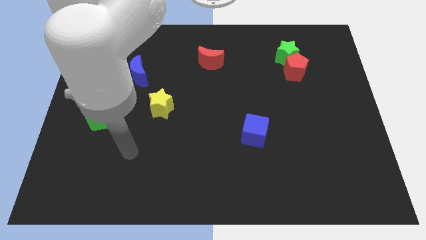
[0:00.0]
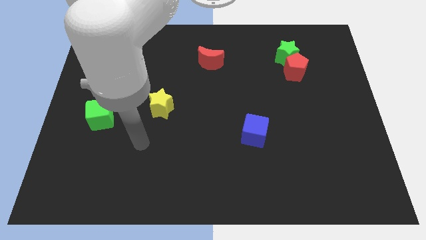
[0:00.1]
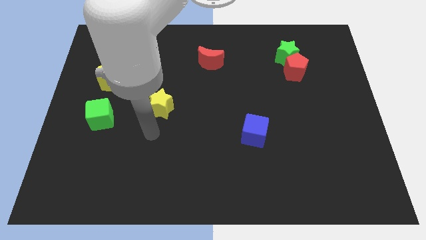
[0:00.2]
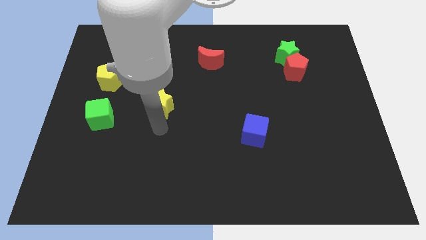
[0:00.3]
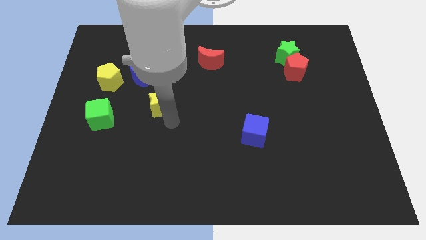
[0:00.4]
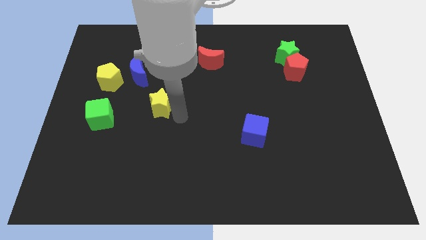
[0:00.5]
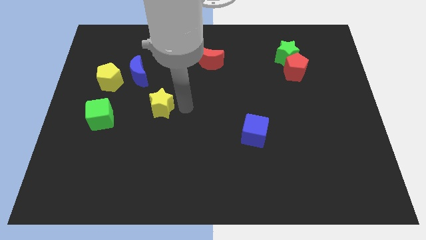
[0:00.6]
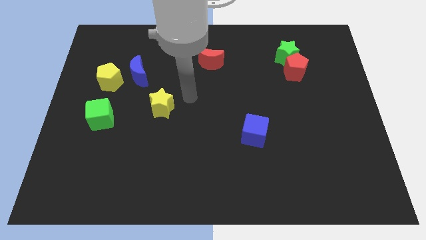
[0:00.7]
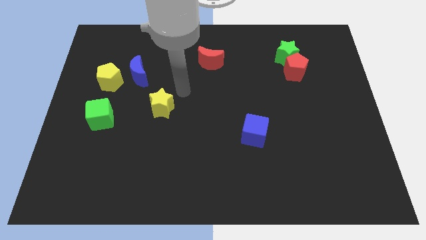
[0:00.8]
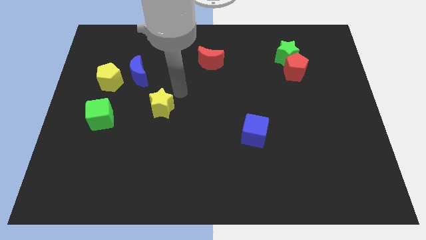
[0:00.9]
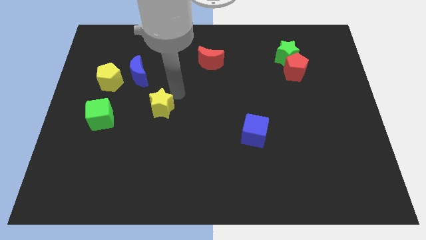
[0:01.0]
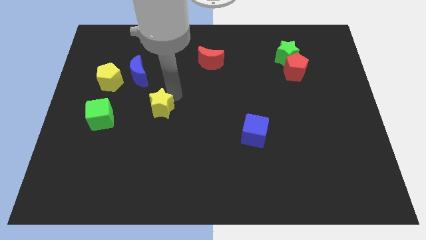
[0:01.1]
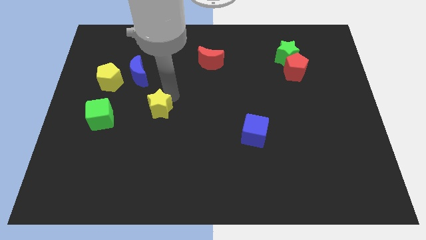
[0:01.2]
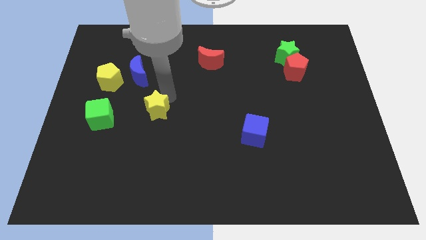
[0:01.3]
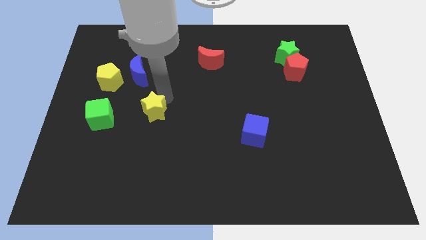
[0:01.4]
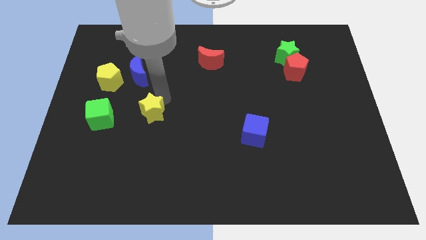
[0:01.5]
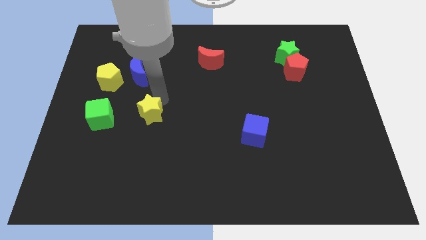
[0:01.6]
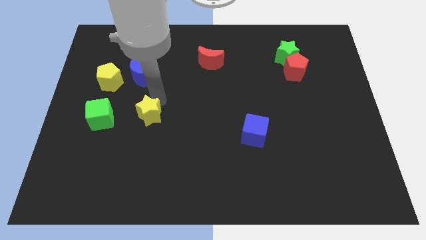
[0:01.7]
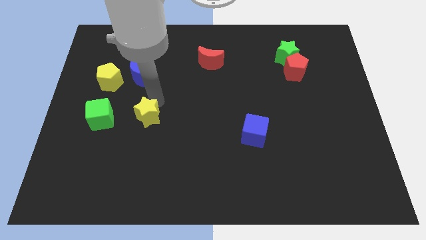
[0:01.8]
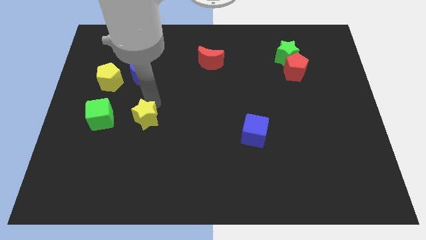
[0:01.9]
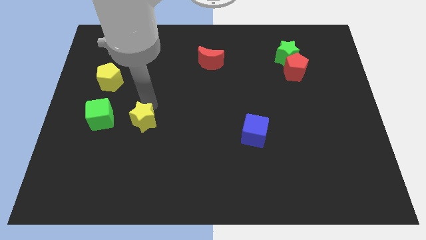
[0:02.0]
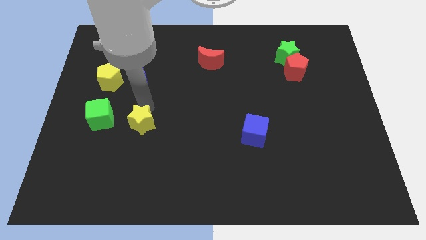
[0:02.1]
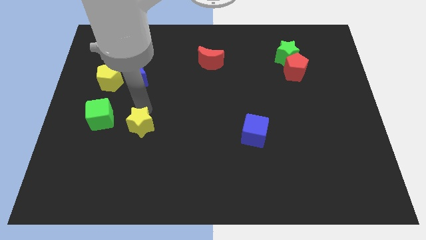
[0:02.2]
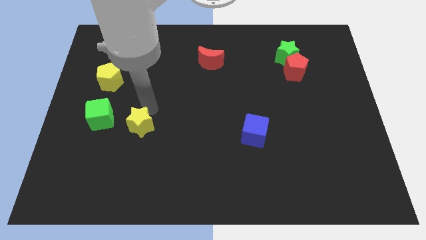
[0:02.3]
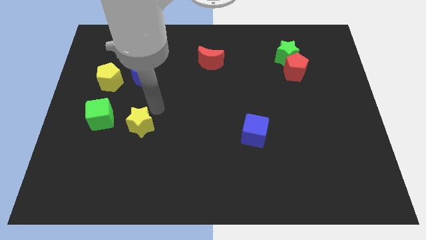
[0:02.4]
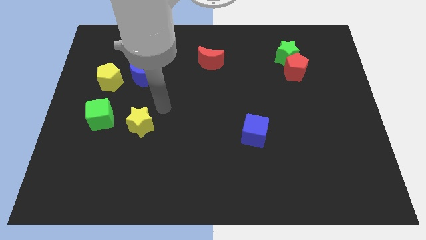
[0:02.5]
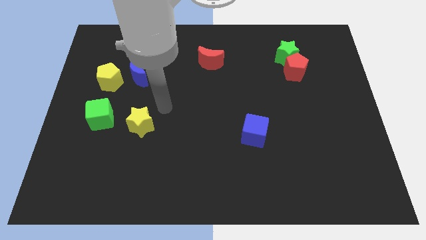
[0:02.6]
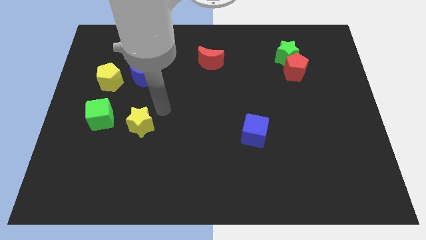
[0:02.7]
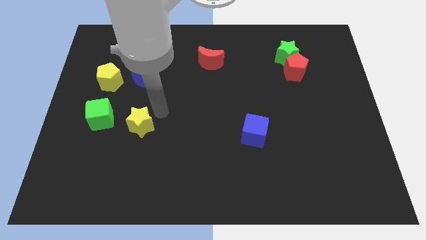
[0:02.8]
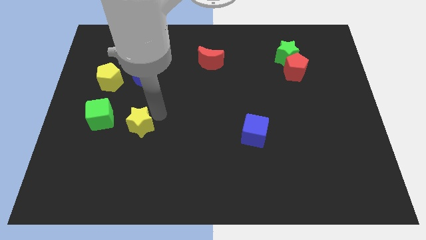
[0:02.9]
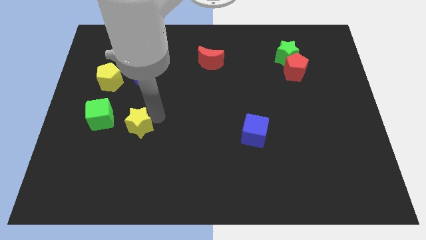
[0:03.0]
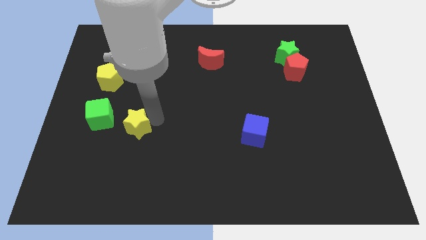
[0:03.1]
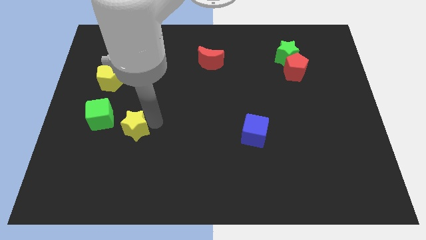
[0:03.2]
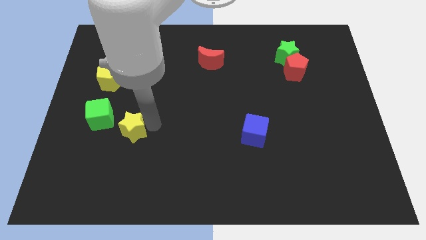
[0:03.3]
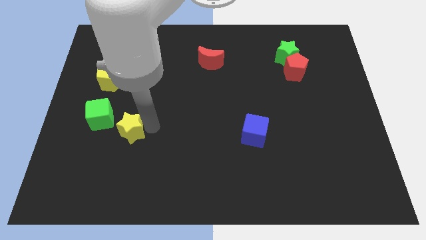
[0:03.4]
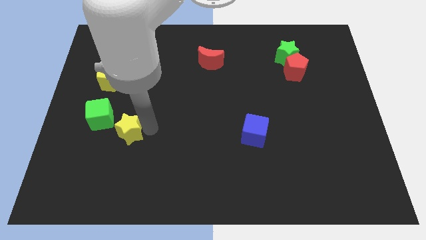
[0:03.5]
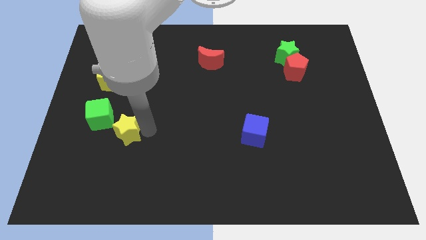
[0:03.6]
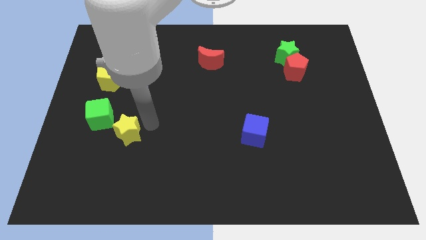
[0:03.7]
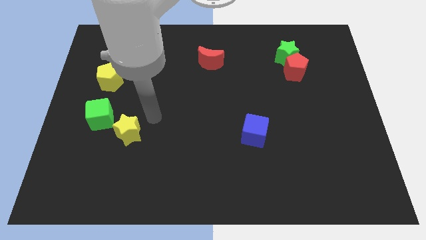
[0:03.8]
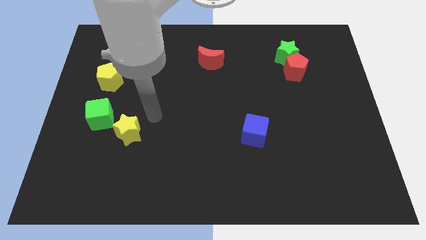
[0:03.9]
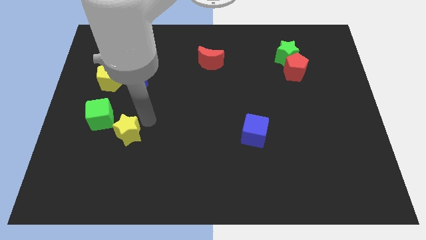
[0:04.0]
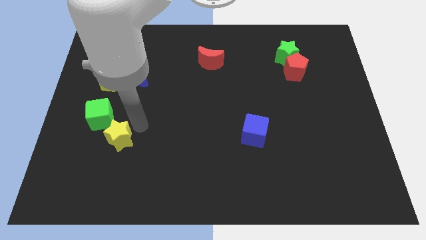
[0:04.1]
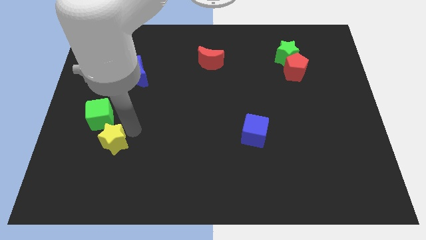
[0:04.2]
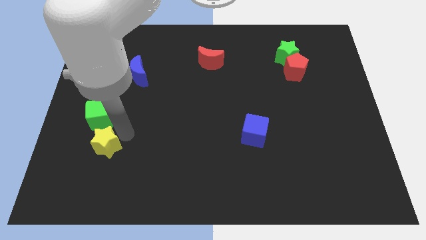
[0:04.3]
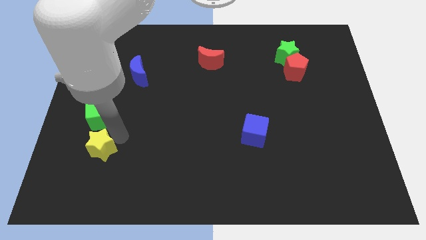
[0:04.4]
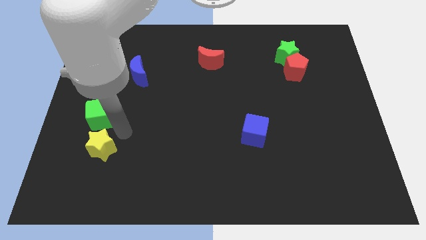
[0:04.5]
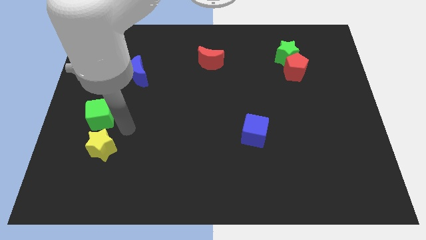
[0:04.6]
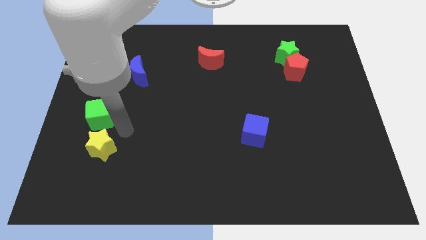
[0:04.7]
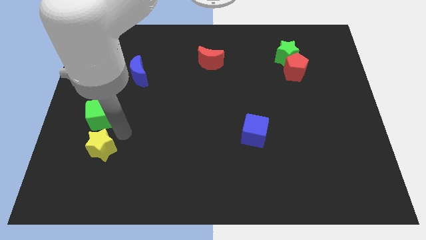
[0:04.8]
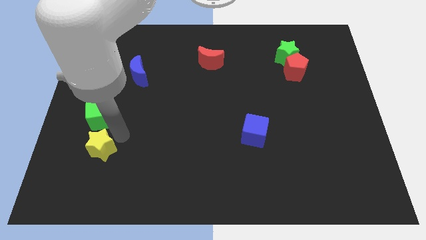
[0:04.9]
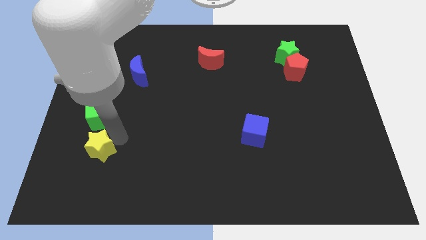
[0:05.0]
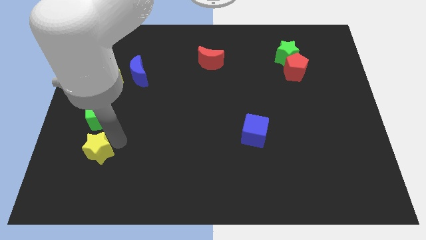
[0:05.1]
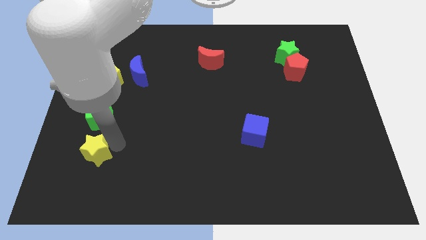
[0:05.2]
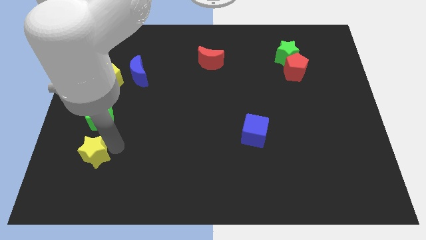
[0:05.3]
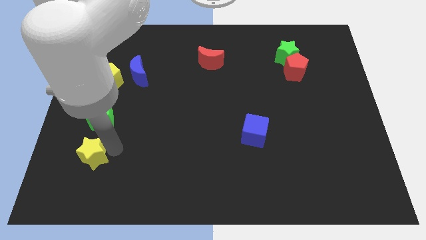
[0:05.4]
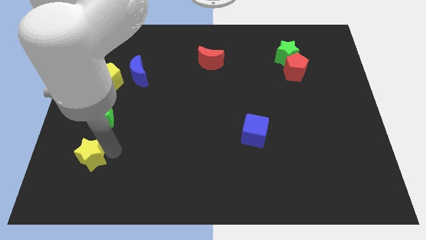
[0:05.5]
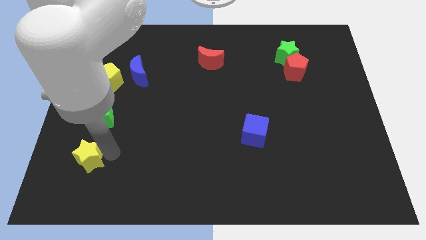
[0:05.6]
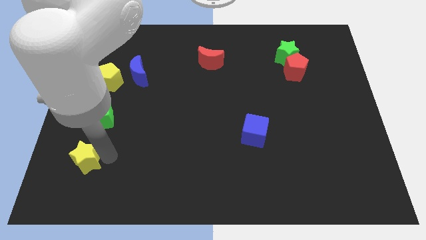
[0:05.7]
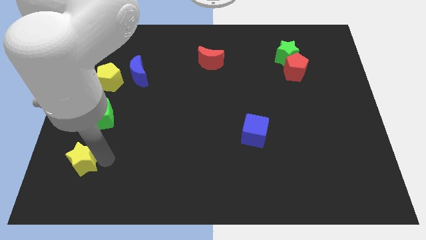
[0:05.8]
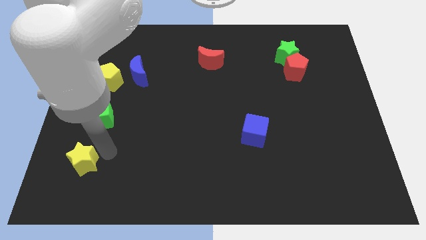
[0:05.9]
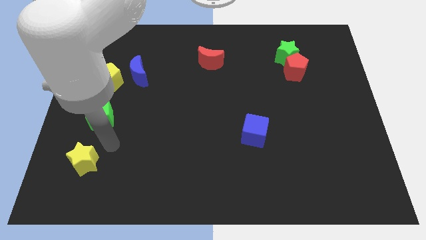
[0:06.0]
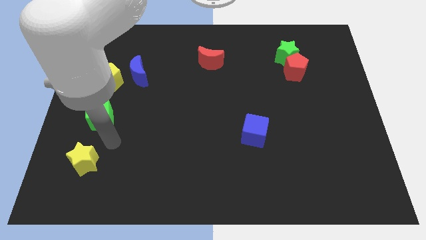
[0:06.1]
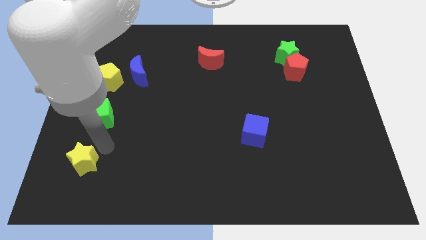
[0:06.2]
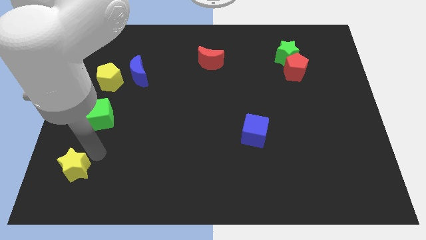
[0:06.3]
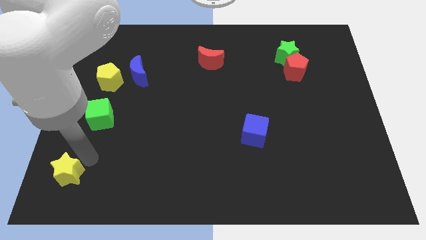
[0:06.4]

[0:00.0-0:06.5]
slide the yellow star to the lower left corner
